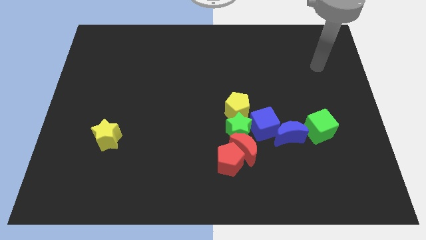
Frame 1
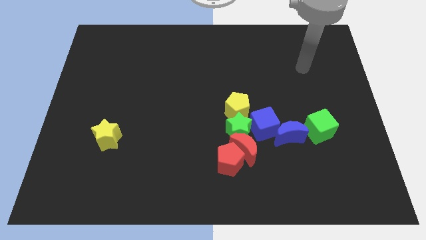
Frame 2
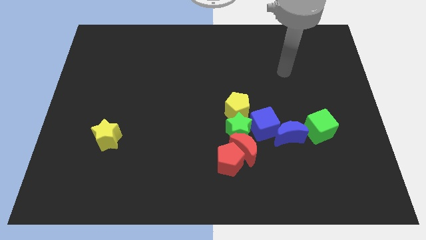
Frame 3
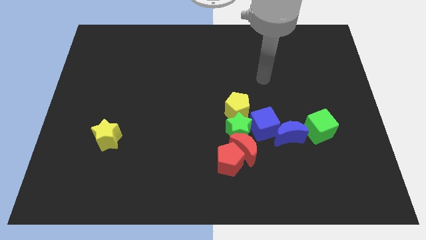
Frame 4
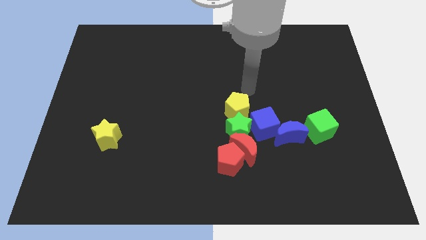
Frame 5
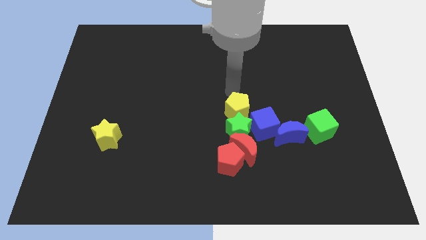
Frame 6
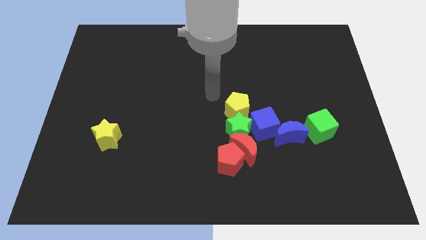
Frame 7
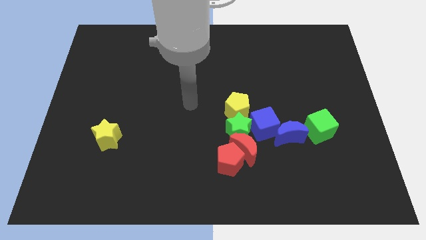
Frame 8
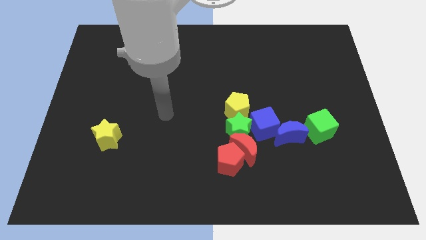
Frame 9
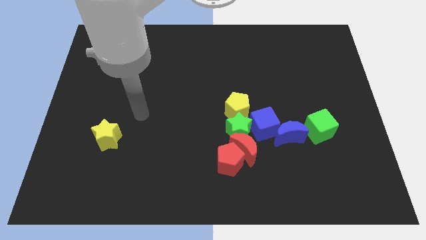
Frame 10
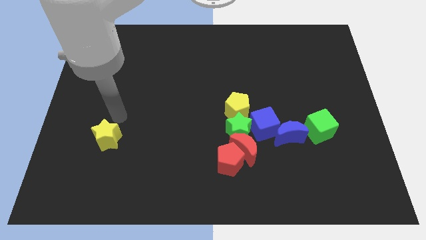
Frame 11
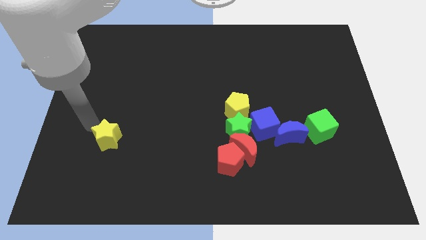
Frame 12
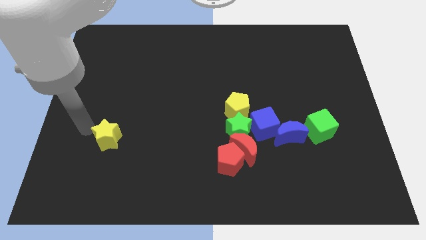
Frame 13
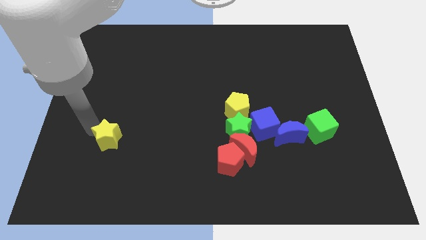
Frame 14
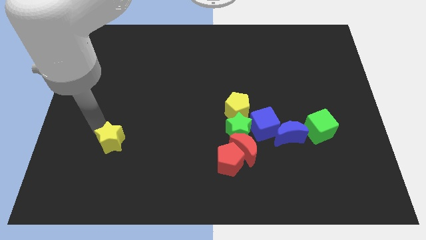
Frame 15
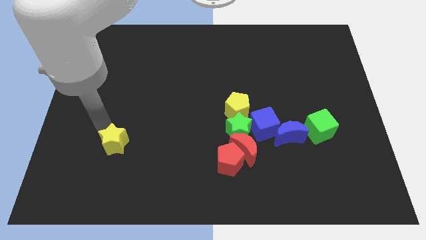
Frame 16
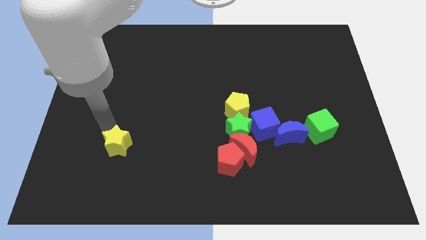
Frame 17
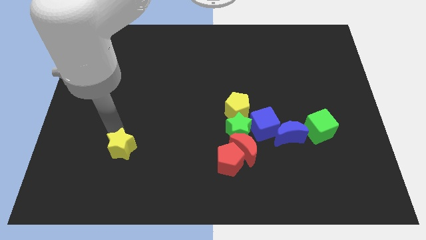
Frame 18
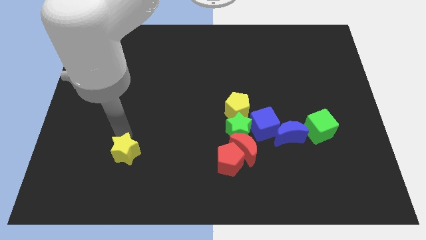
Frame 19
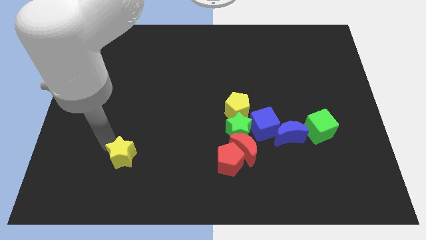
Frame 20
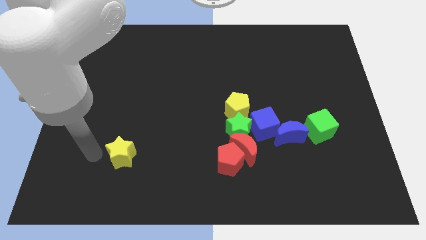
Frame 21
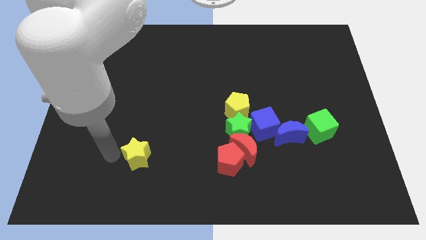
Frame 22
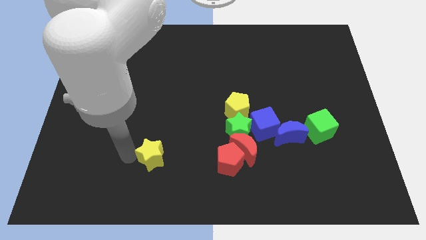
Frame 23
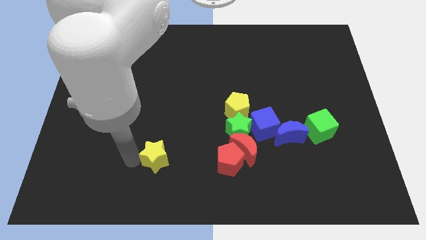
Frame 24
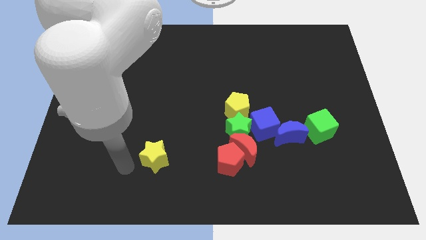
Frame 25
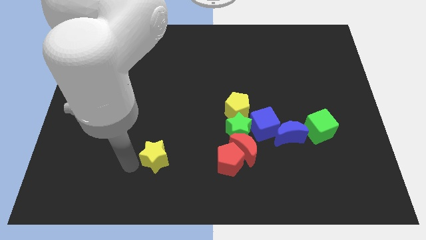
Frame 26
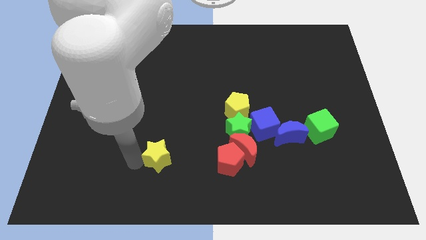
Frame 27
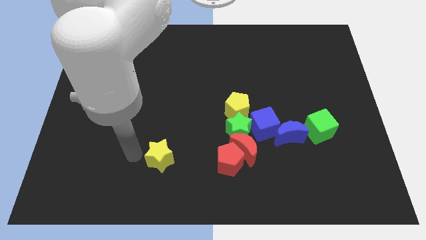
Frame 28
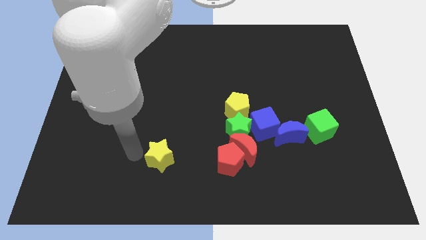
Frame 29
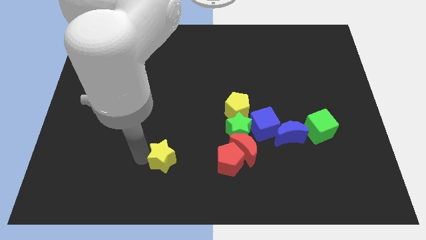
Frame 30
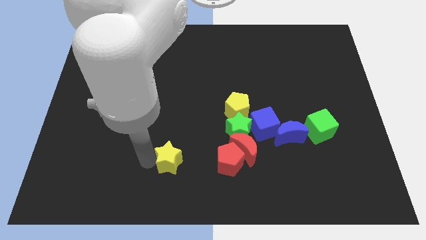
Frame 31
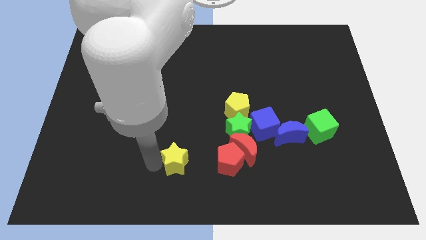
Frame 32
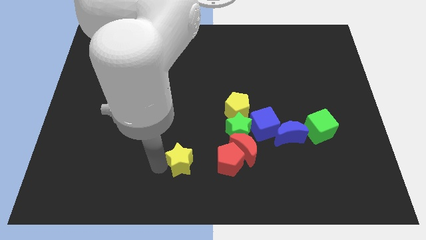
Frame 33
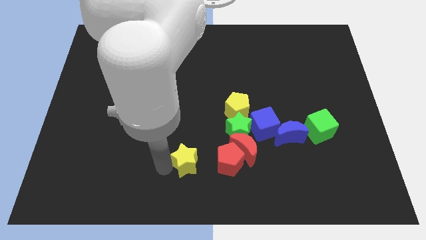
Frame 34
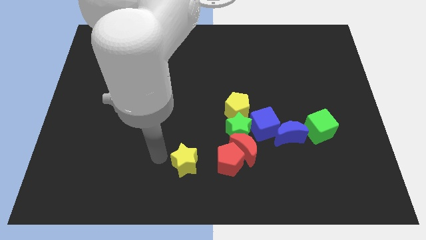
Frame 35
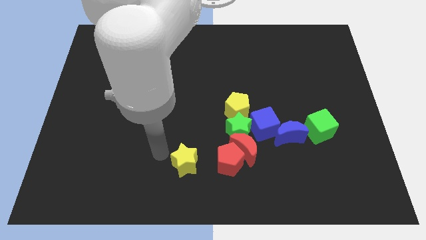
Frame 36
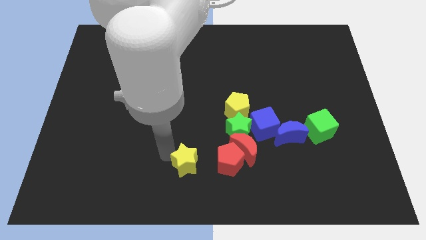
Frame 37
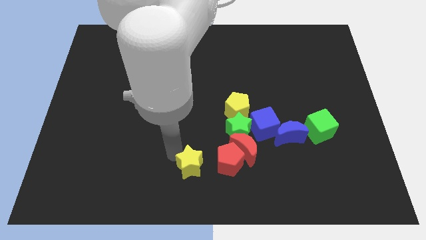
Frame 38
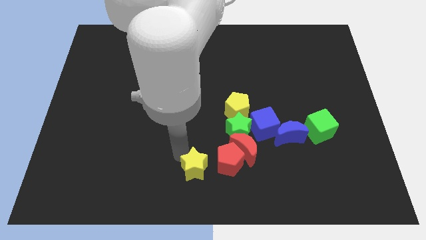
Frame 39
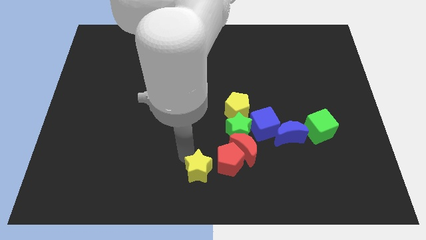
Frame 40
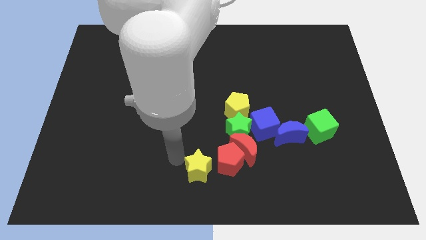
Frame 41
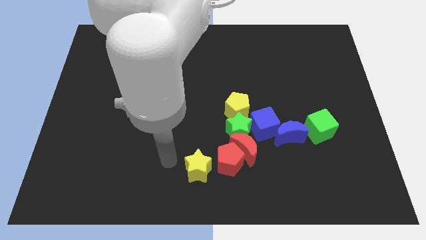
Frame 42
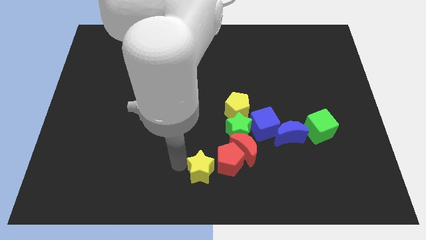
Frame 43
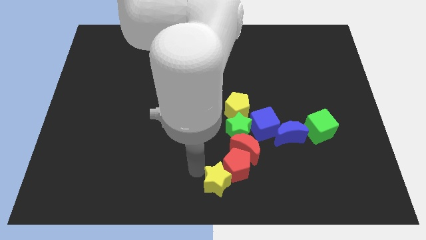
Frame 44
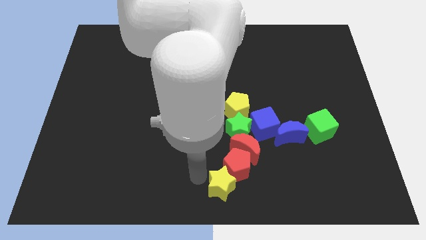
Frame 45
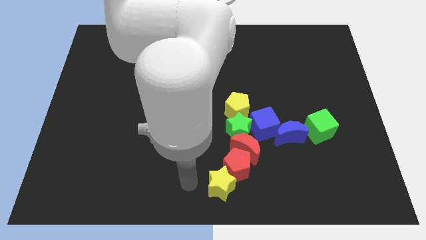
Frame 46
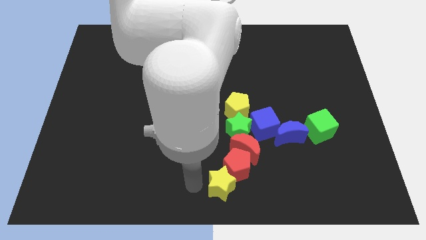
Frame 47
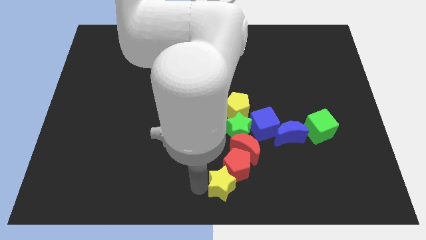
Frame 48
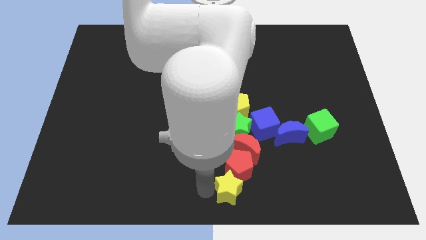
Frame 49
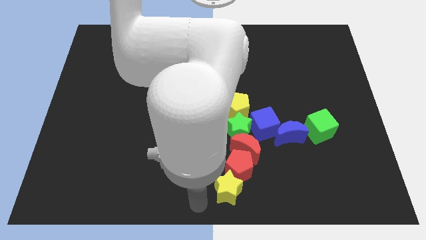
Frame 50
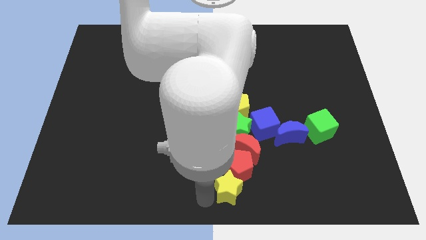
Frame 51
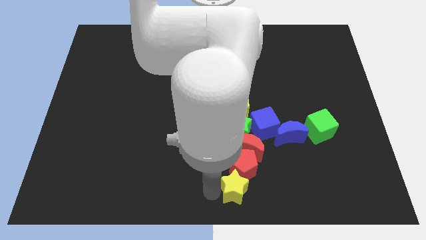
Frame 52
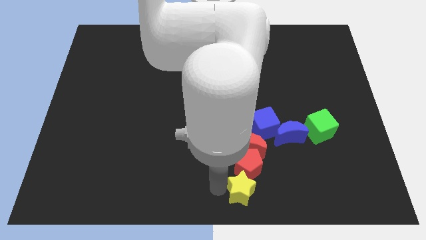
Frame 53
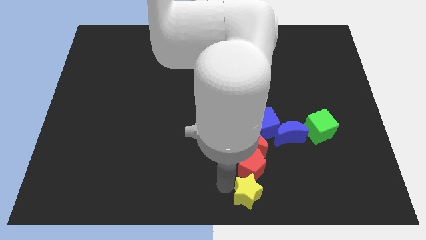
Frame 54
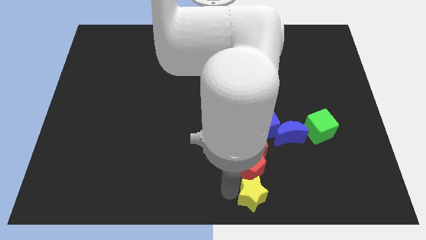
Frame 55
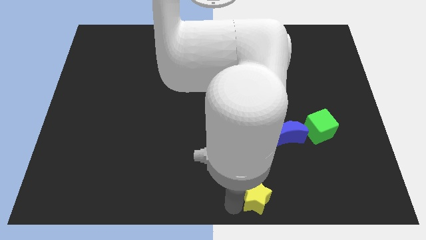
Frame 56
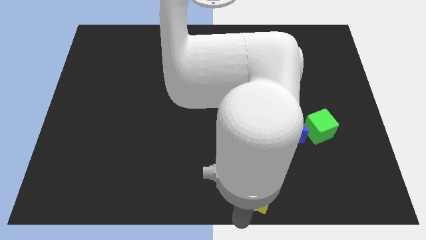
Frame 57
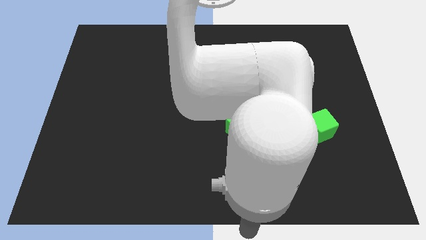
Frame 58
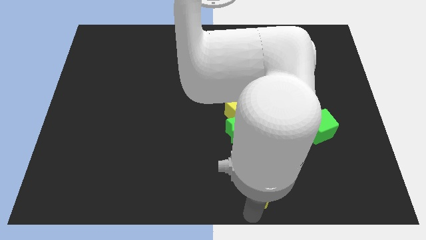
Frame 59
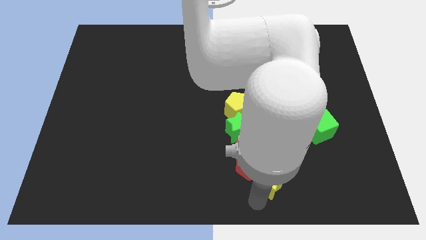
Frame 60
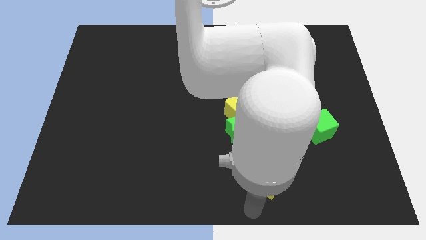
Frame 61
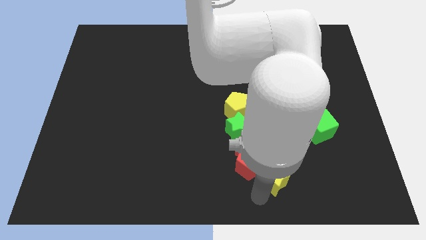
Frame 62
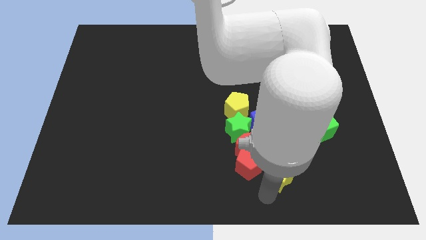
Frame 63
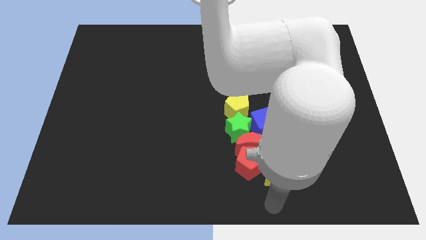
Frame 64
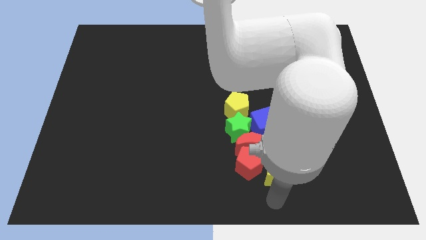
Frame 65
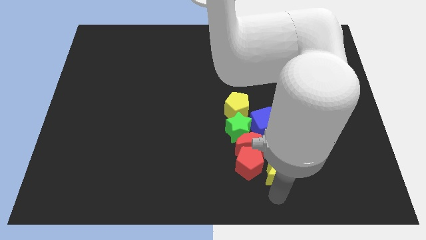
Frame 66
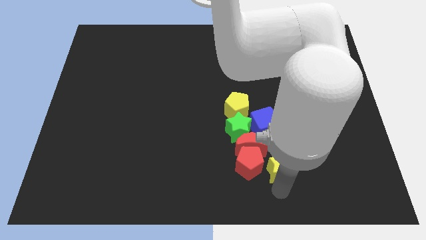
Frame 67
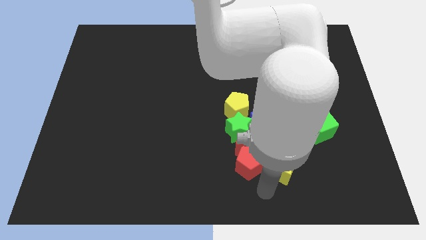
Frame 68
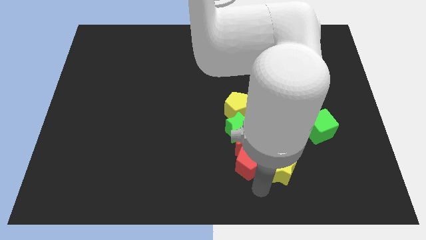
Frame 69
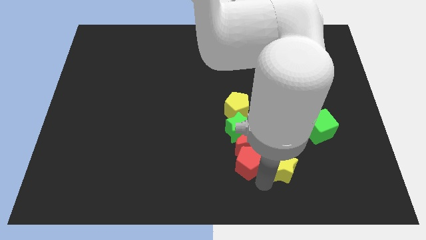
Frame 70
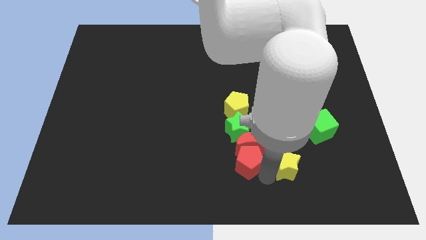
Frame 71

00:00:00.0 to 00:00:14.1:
move the yellow star diagonally down and to the left of the green cube

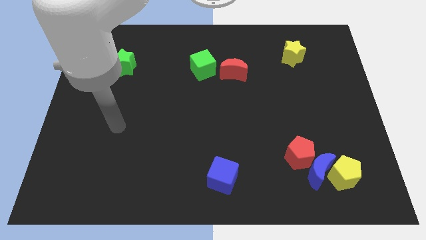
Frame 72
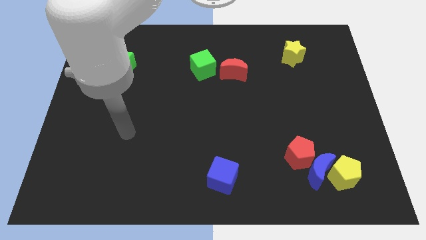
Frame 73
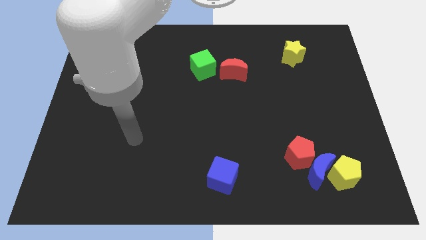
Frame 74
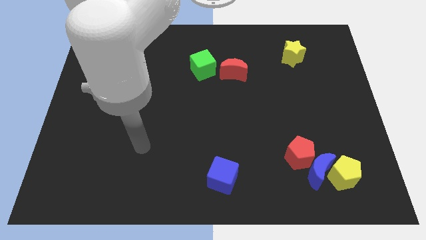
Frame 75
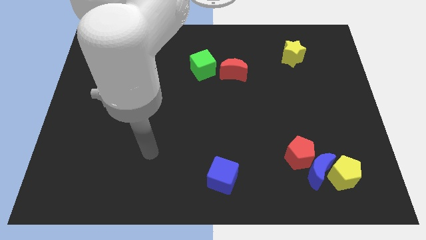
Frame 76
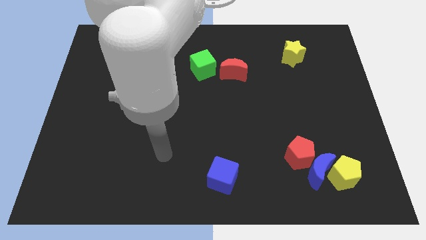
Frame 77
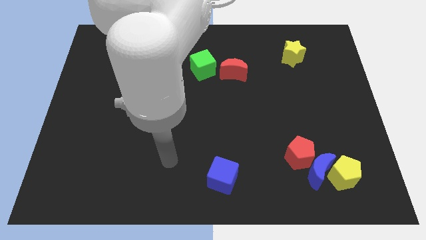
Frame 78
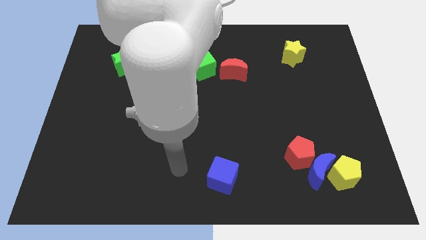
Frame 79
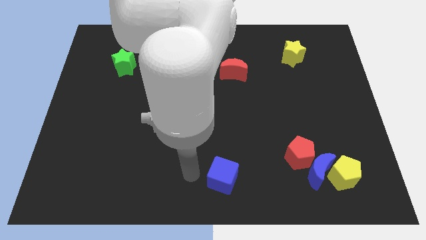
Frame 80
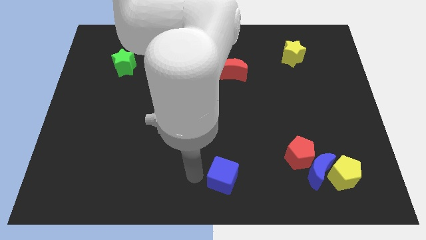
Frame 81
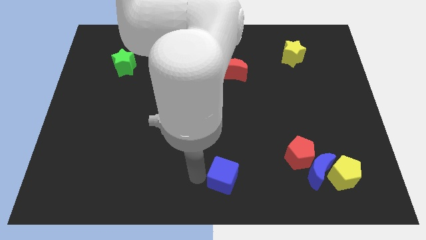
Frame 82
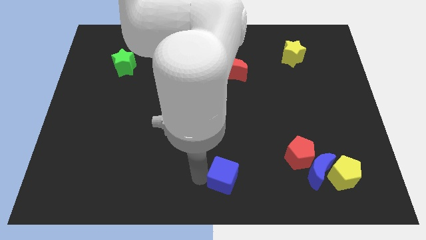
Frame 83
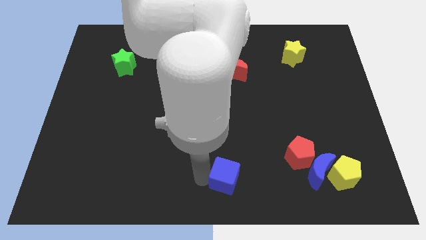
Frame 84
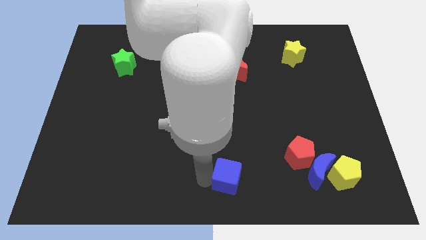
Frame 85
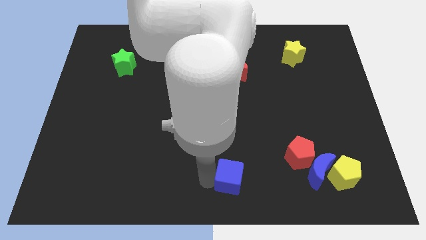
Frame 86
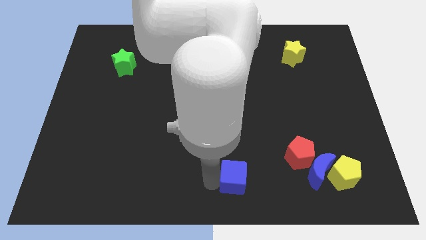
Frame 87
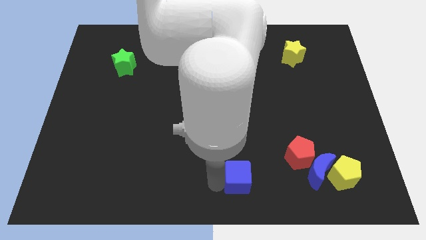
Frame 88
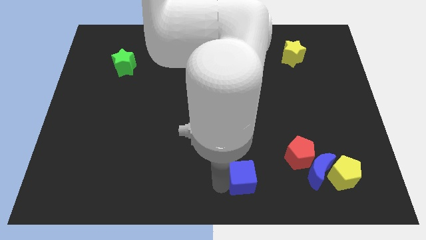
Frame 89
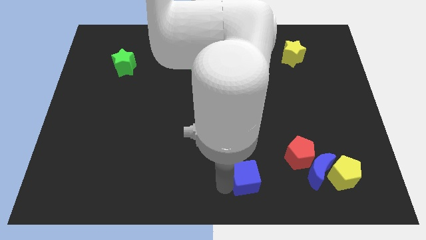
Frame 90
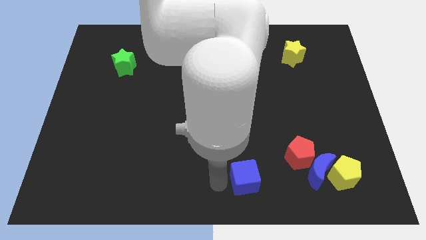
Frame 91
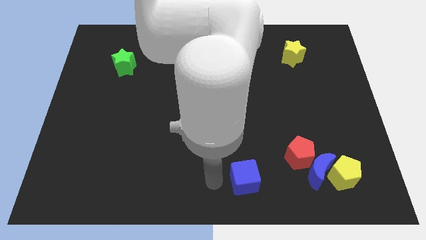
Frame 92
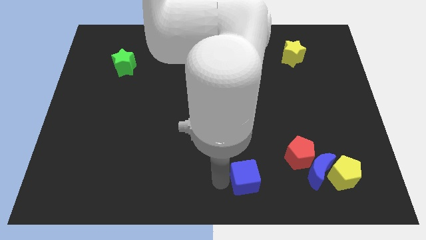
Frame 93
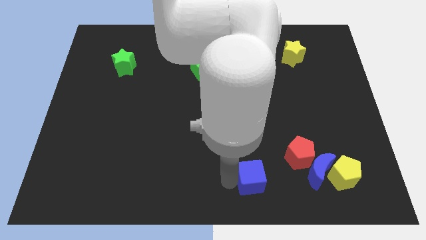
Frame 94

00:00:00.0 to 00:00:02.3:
push the blue cube diagonally down and to the left of the red pentagon
